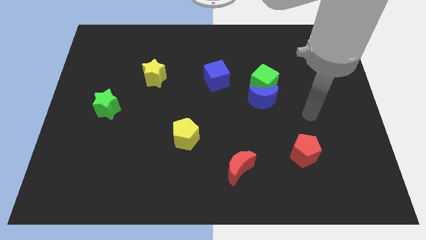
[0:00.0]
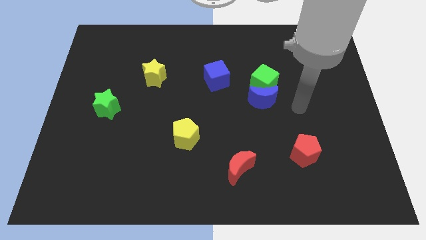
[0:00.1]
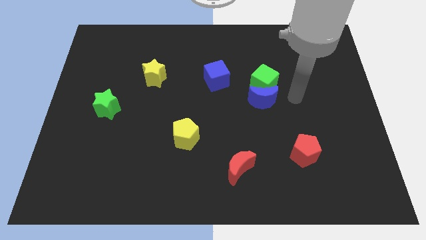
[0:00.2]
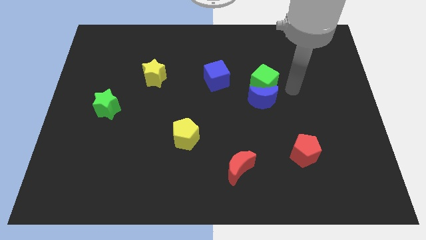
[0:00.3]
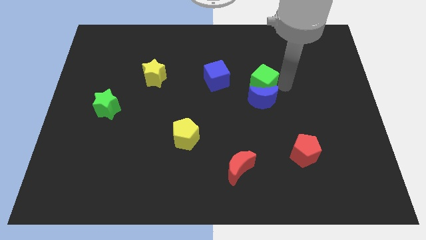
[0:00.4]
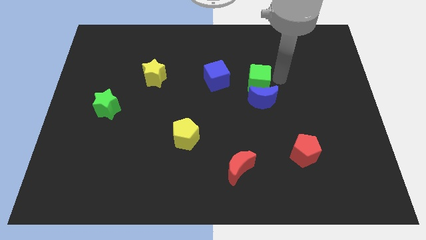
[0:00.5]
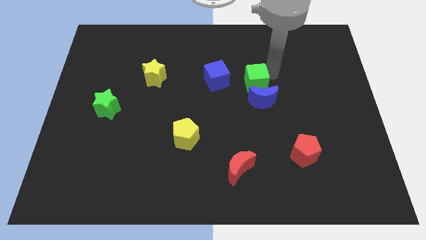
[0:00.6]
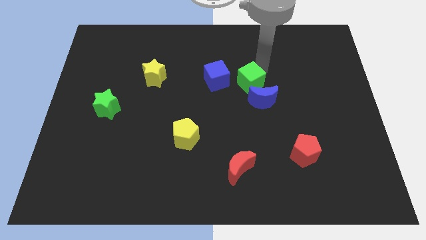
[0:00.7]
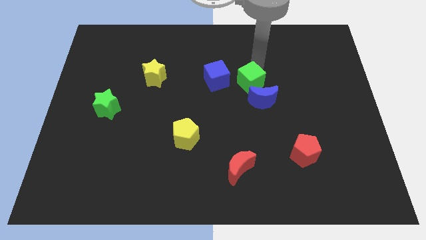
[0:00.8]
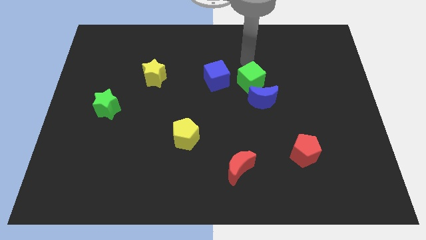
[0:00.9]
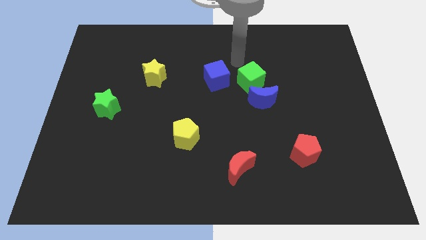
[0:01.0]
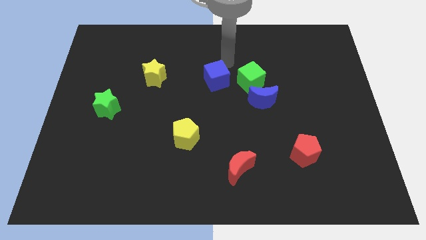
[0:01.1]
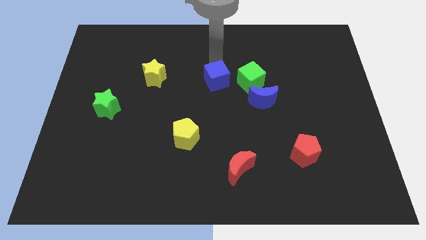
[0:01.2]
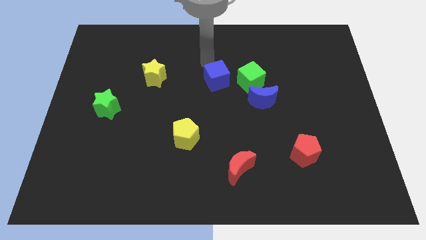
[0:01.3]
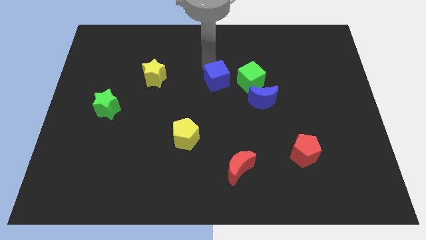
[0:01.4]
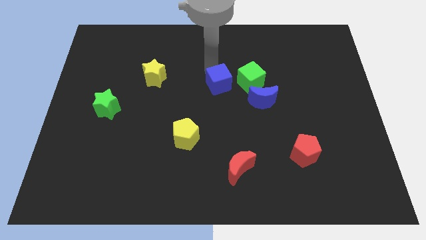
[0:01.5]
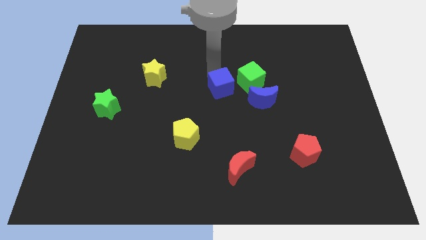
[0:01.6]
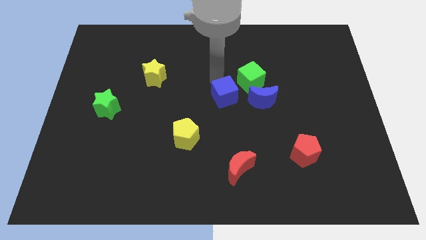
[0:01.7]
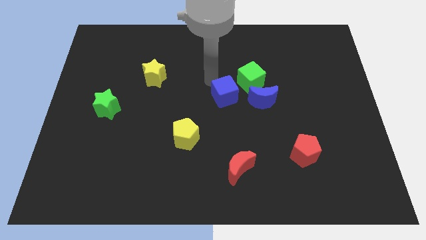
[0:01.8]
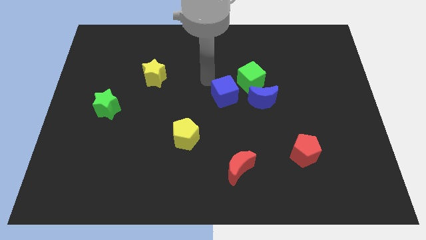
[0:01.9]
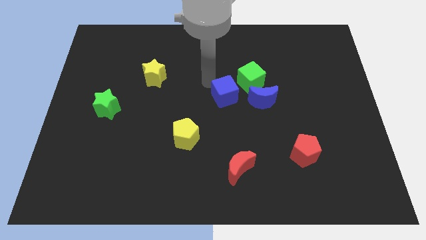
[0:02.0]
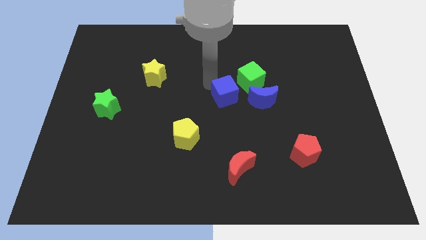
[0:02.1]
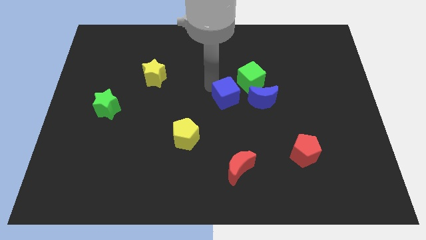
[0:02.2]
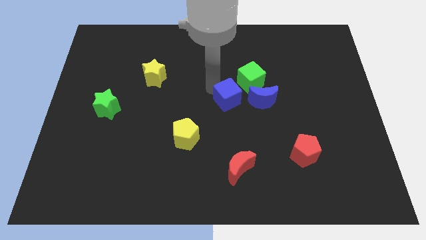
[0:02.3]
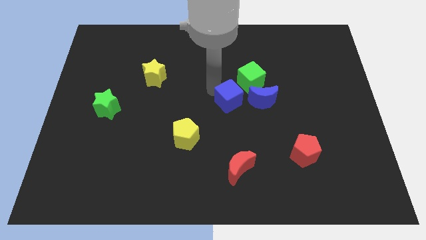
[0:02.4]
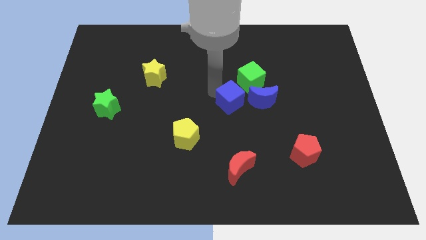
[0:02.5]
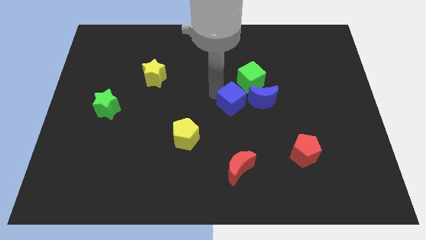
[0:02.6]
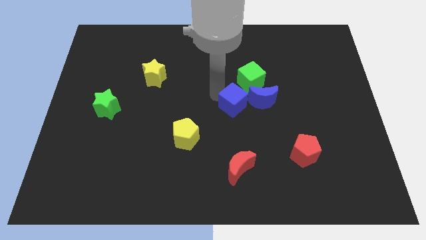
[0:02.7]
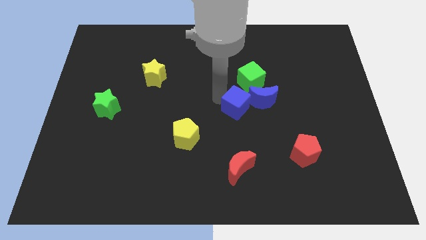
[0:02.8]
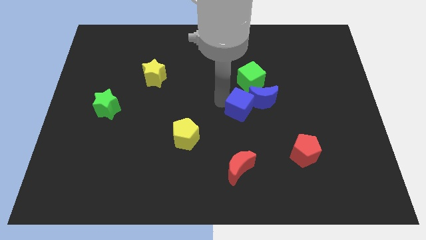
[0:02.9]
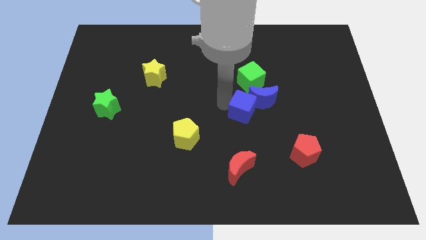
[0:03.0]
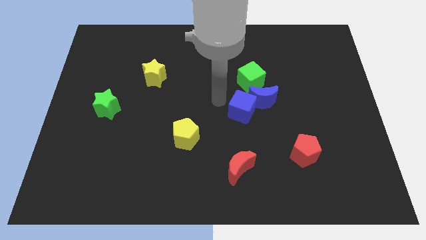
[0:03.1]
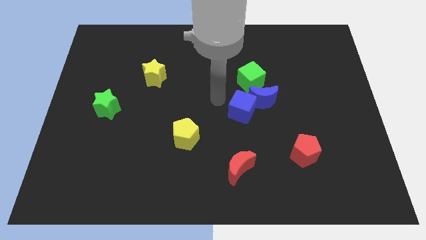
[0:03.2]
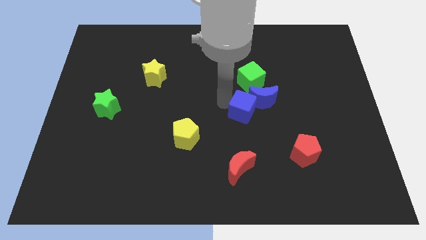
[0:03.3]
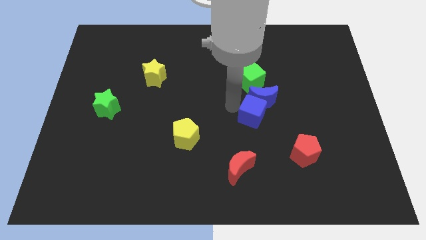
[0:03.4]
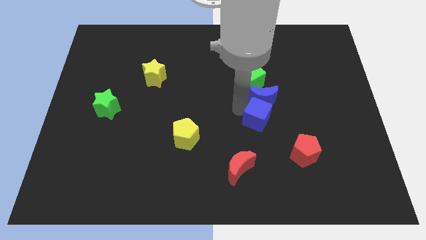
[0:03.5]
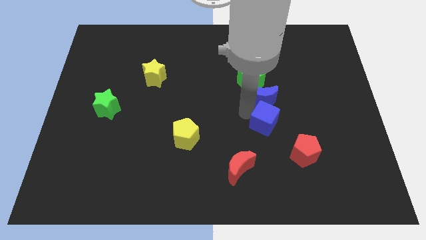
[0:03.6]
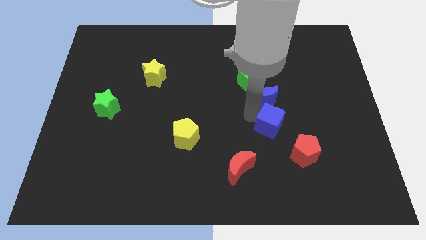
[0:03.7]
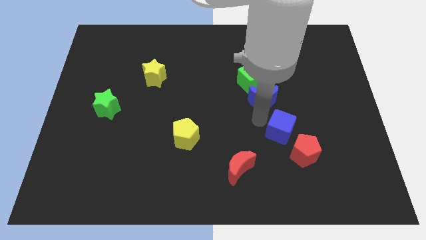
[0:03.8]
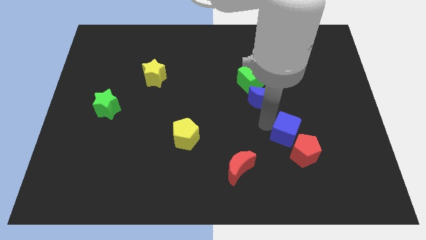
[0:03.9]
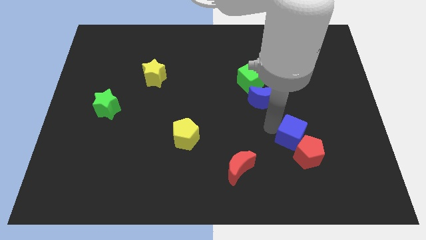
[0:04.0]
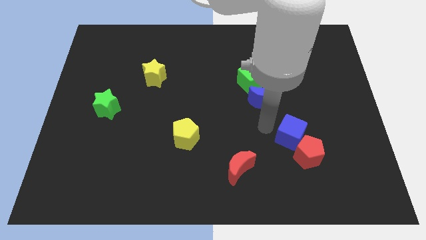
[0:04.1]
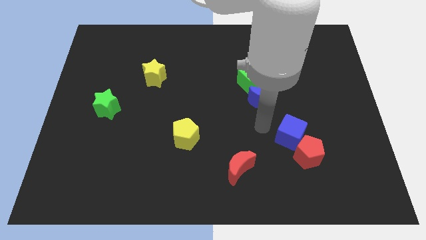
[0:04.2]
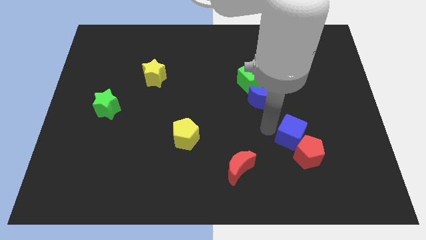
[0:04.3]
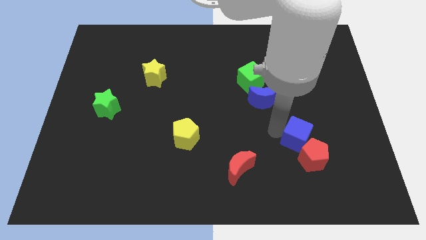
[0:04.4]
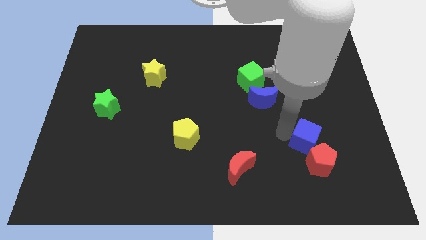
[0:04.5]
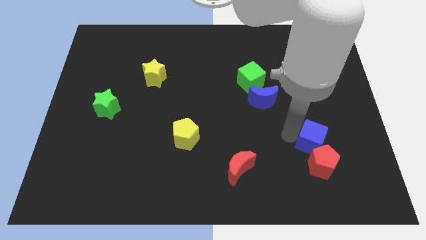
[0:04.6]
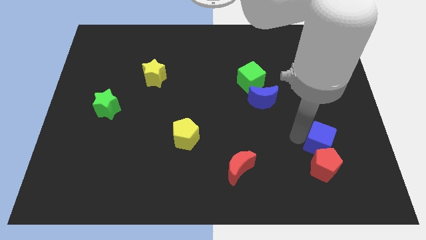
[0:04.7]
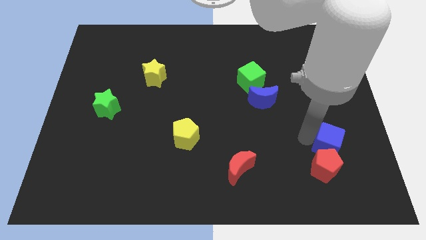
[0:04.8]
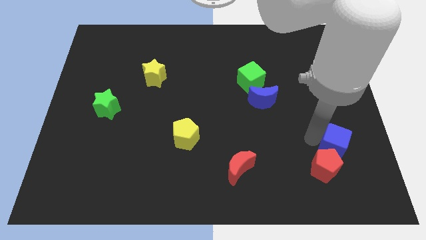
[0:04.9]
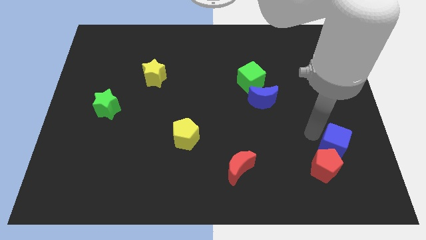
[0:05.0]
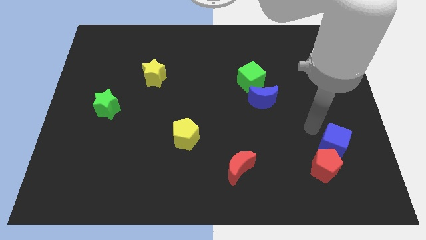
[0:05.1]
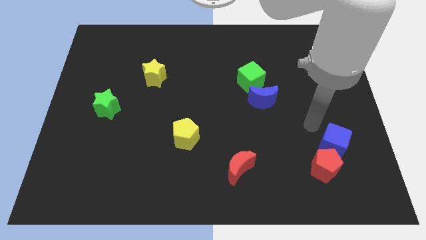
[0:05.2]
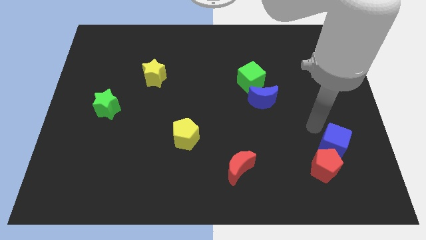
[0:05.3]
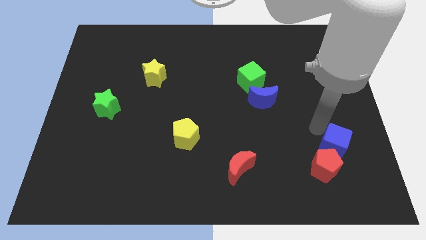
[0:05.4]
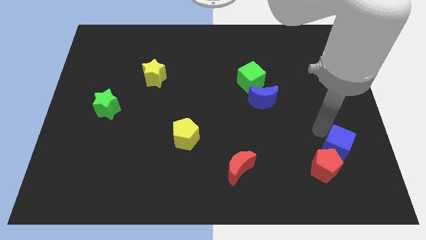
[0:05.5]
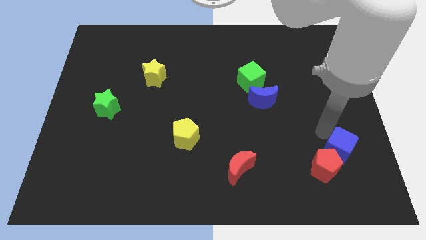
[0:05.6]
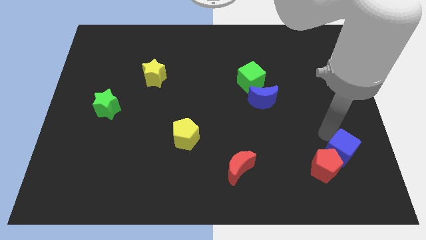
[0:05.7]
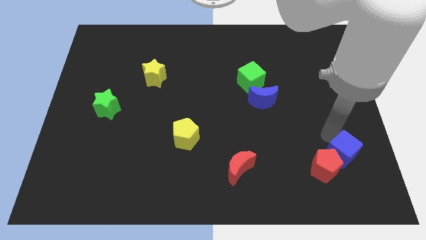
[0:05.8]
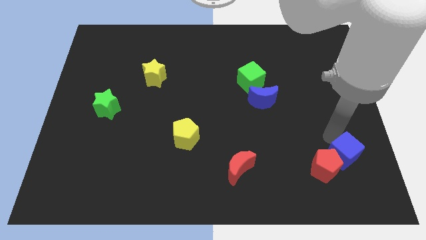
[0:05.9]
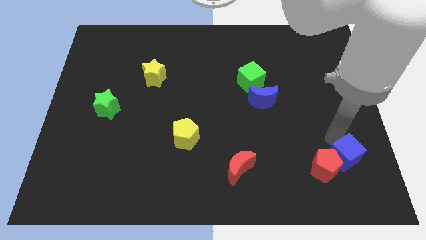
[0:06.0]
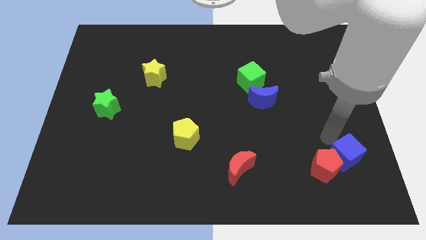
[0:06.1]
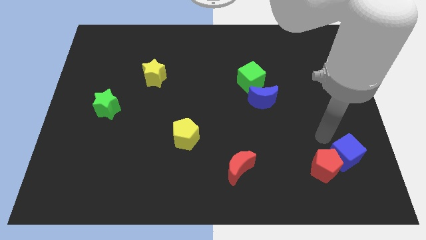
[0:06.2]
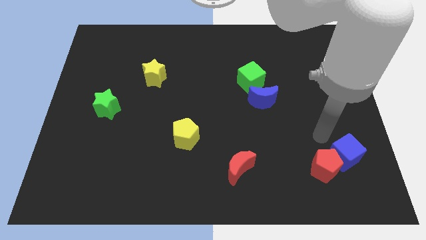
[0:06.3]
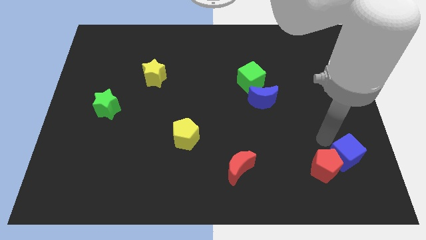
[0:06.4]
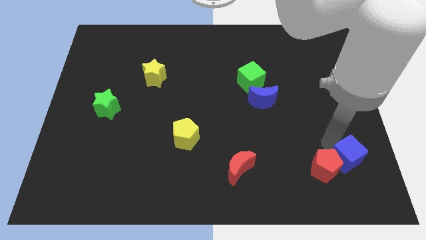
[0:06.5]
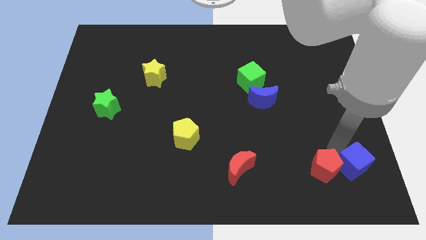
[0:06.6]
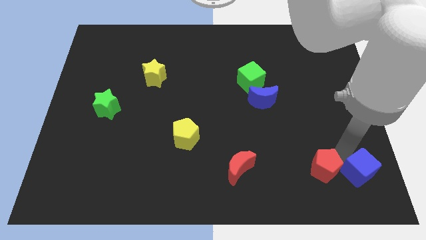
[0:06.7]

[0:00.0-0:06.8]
move the blue cube to the lower right corner
